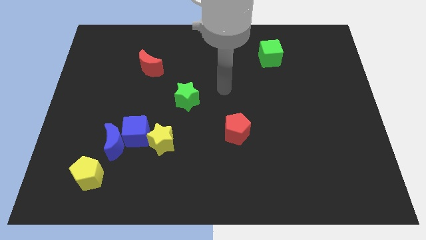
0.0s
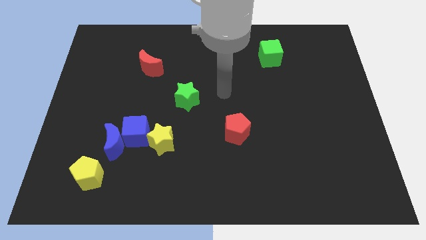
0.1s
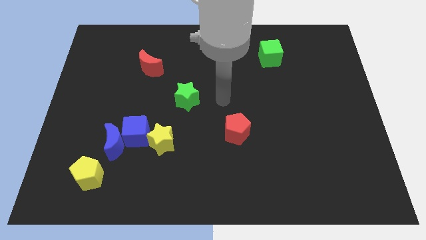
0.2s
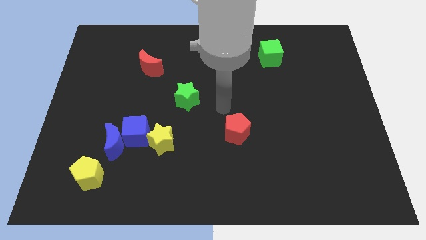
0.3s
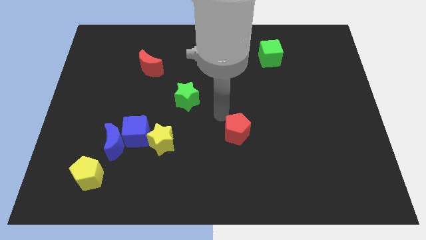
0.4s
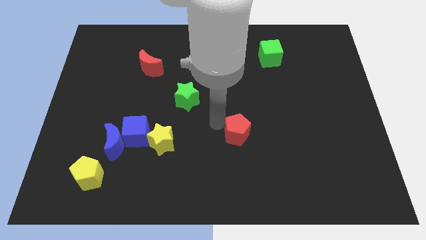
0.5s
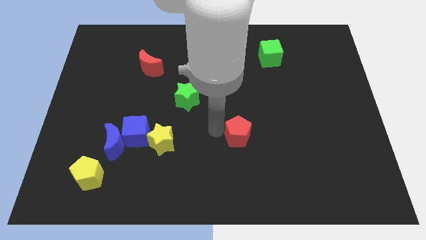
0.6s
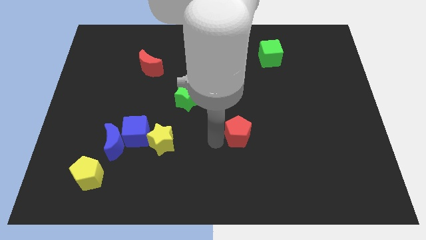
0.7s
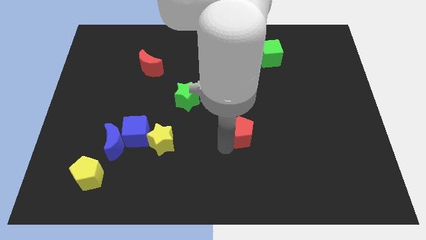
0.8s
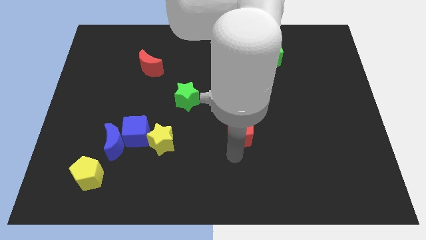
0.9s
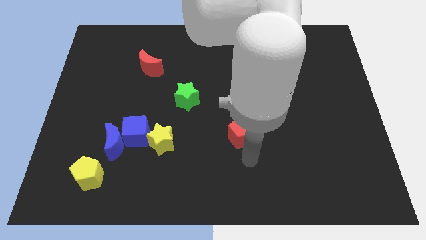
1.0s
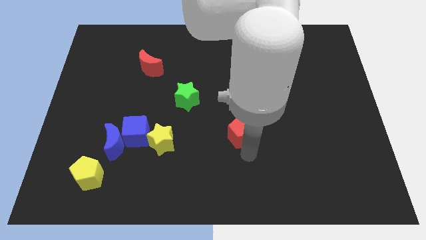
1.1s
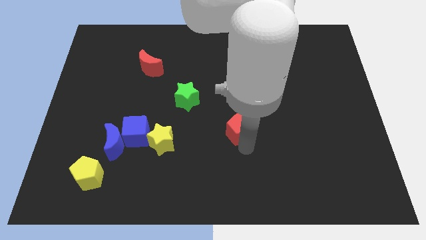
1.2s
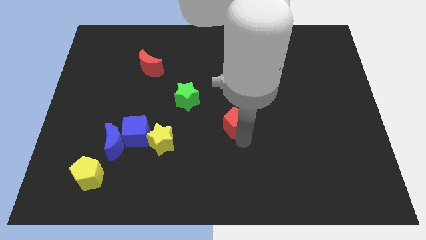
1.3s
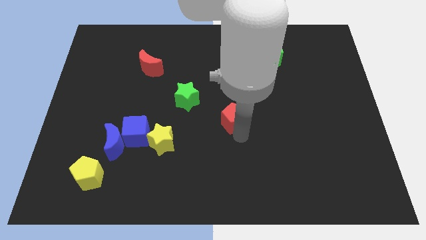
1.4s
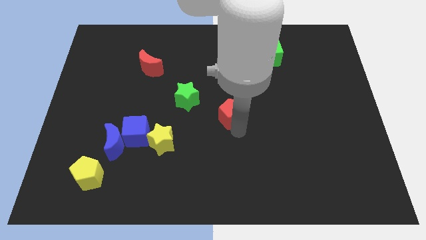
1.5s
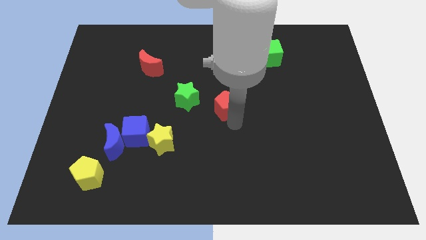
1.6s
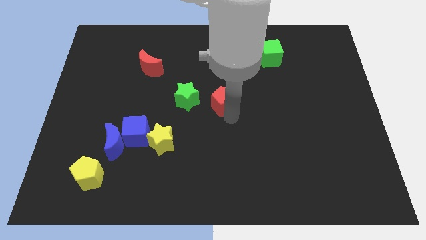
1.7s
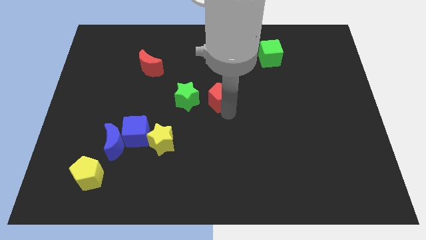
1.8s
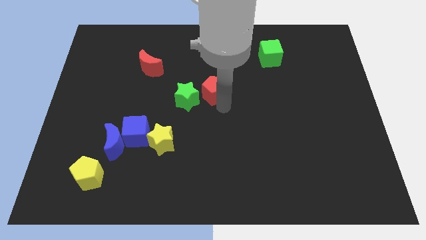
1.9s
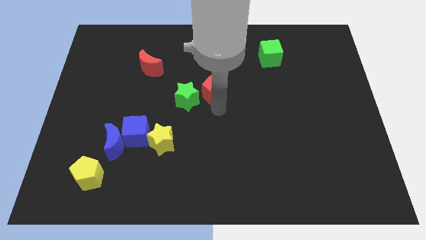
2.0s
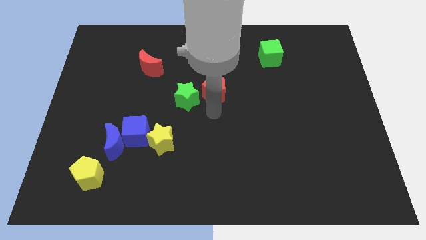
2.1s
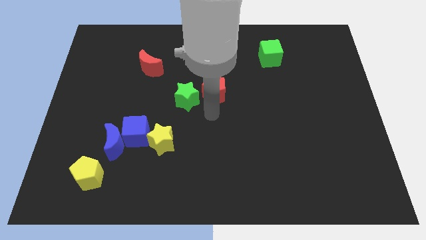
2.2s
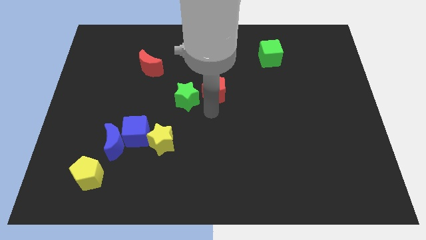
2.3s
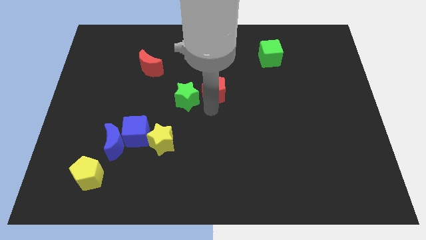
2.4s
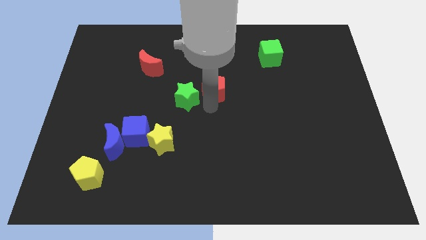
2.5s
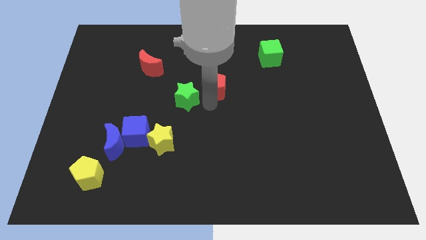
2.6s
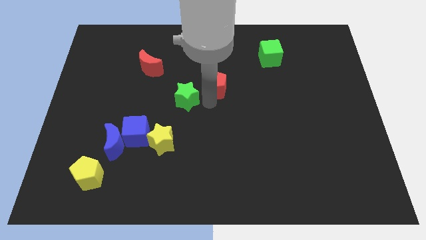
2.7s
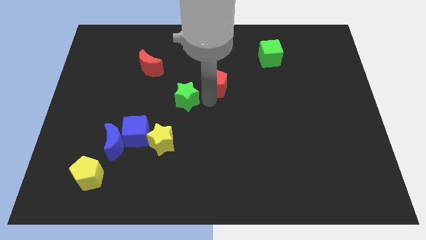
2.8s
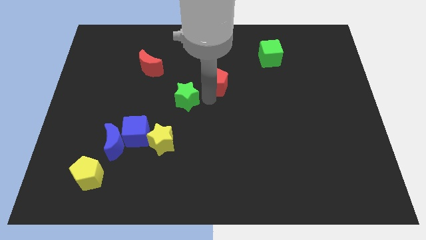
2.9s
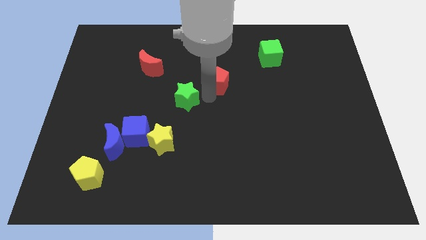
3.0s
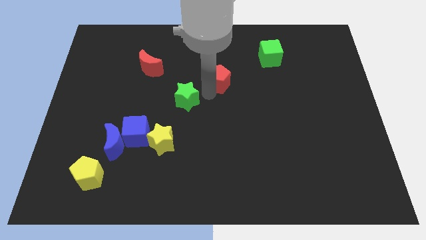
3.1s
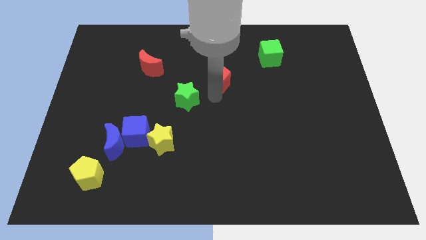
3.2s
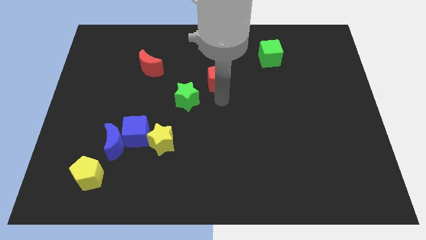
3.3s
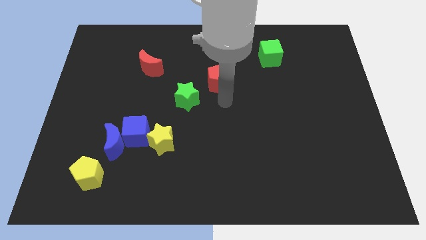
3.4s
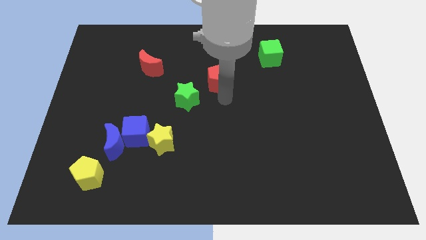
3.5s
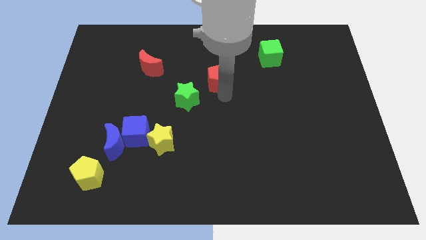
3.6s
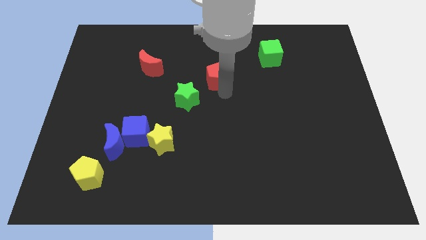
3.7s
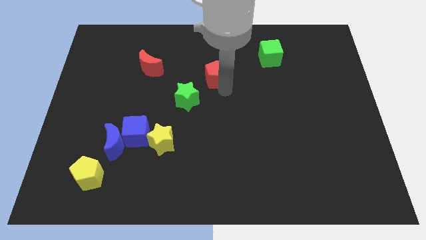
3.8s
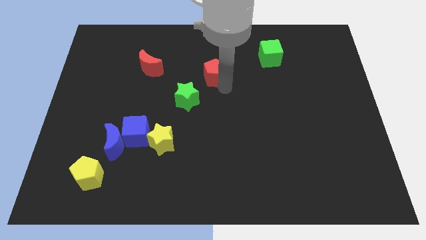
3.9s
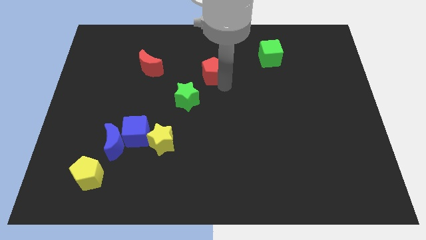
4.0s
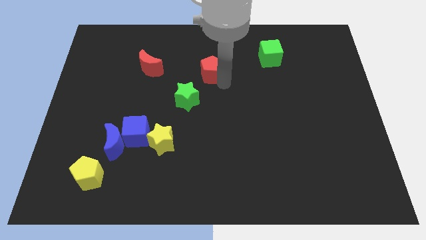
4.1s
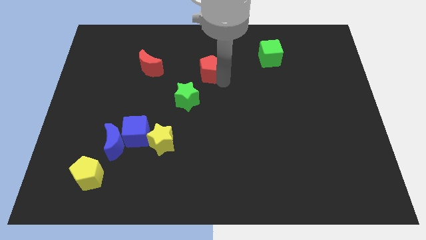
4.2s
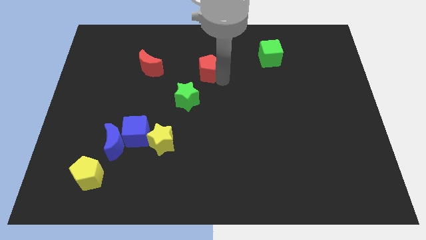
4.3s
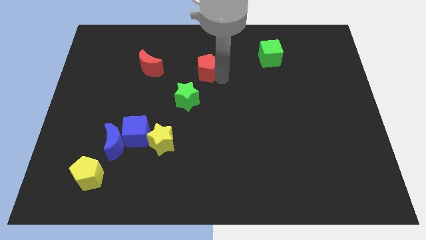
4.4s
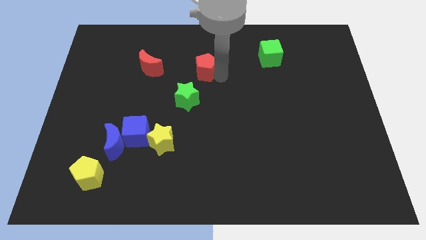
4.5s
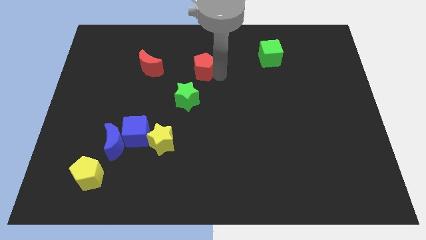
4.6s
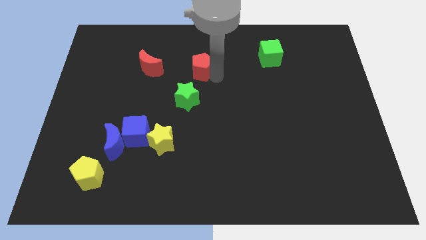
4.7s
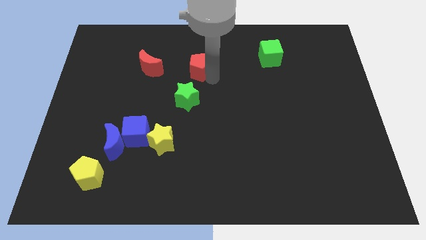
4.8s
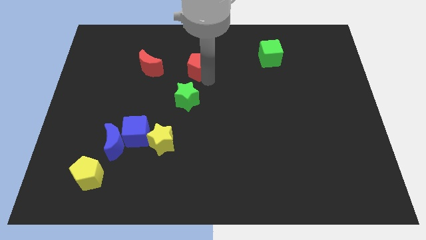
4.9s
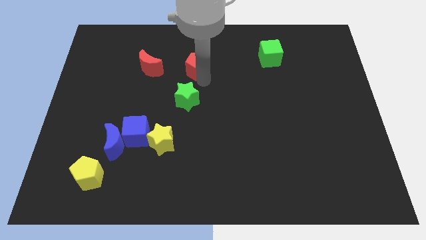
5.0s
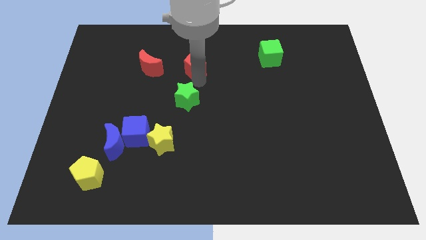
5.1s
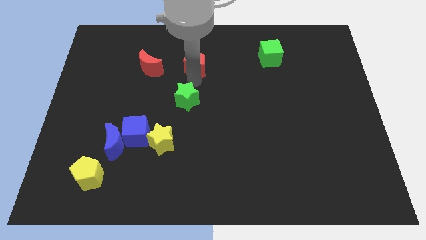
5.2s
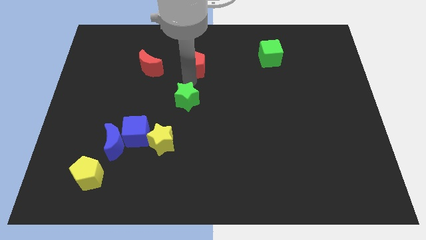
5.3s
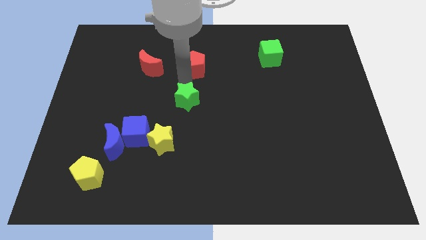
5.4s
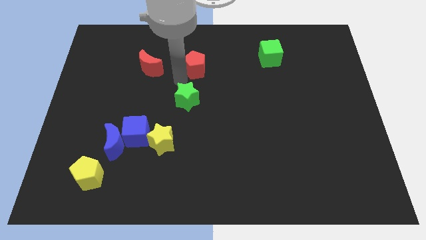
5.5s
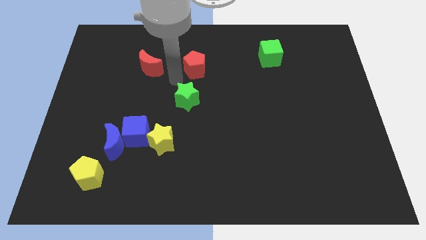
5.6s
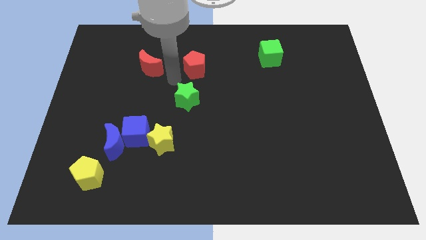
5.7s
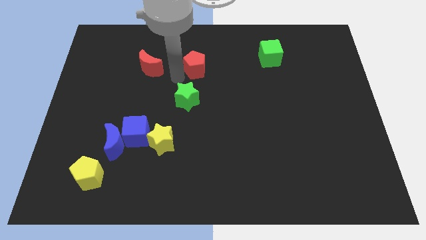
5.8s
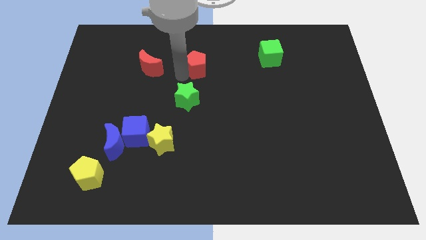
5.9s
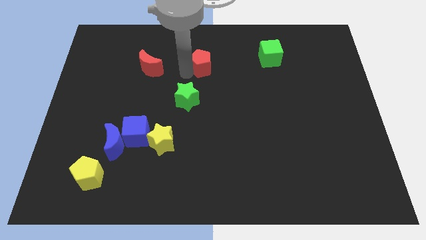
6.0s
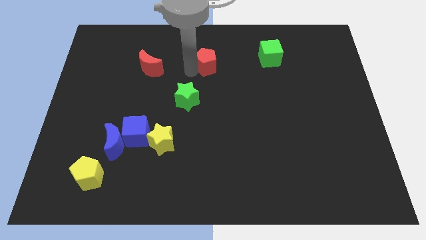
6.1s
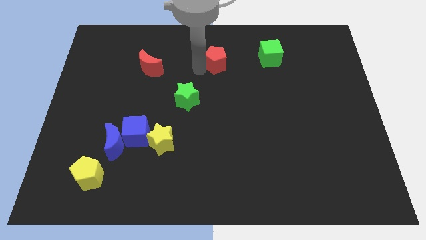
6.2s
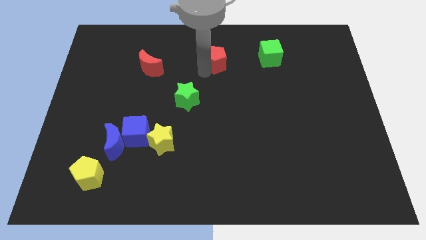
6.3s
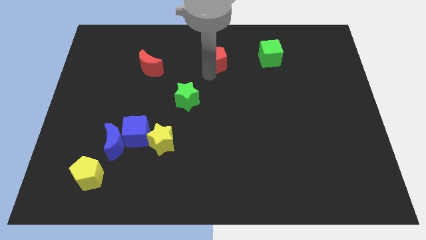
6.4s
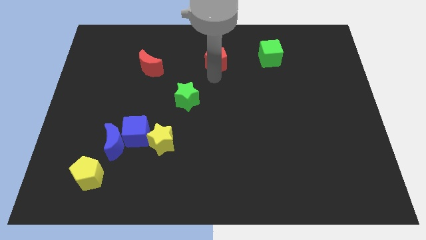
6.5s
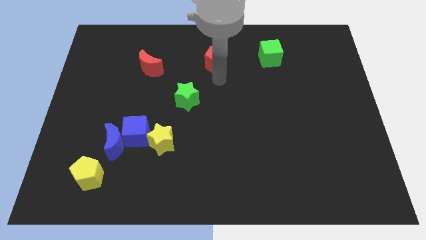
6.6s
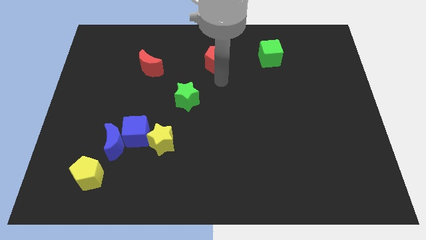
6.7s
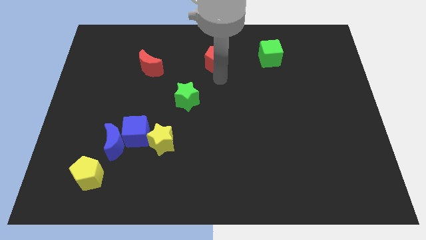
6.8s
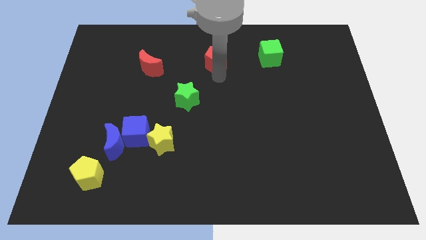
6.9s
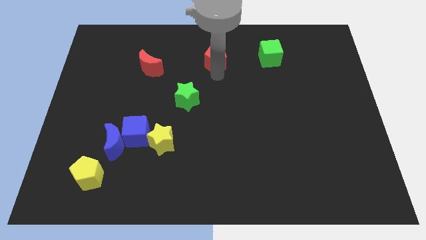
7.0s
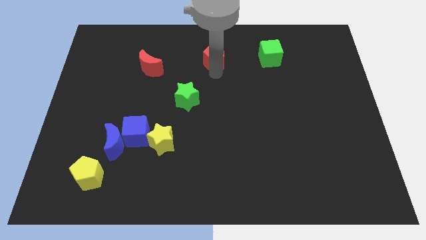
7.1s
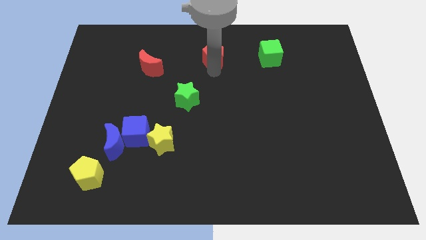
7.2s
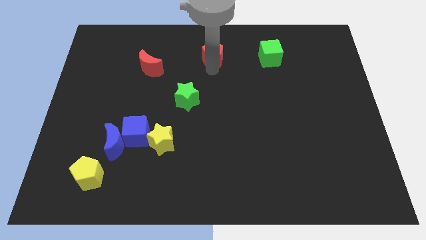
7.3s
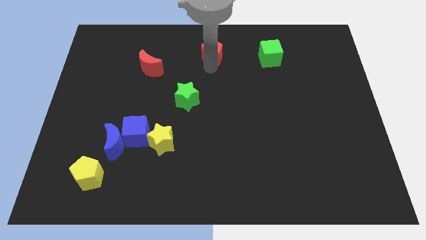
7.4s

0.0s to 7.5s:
push the red pentagon to the top

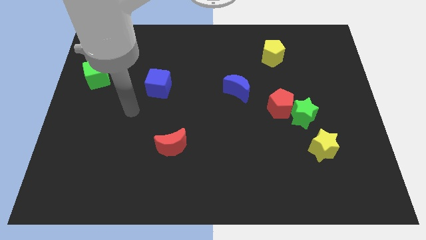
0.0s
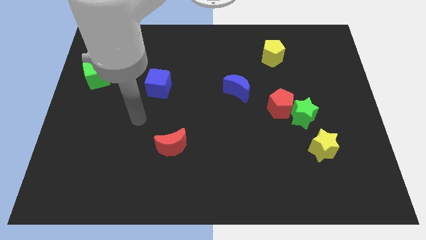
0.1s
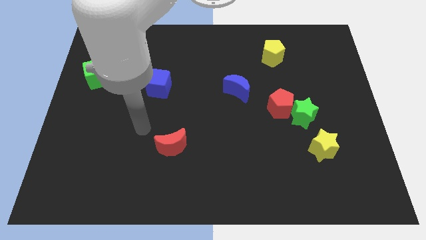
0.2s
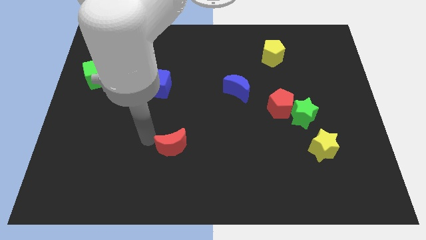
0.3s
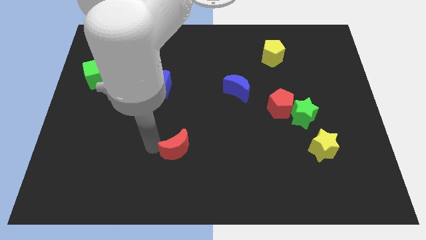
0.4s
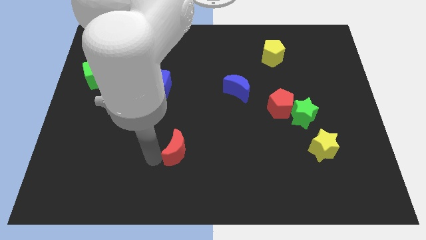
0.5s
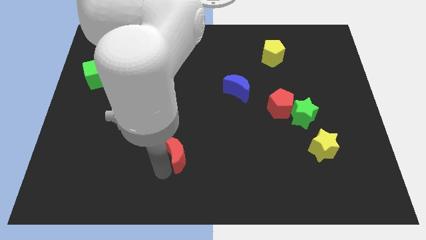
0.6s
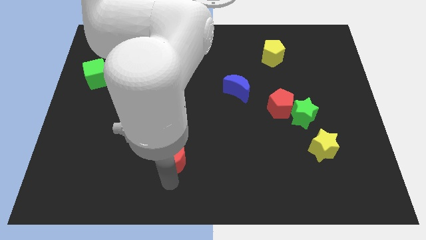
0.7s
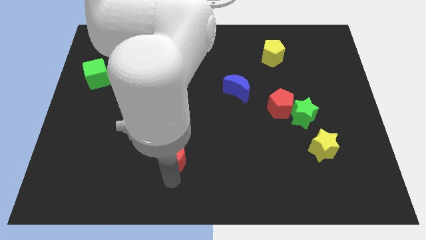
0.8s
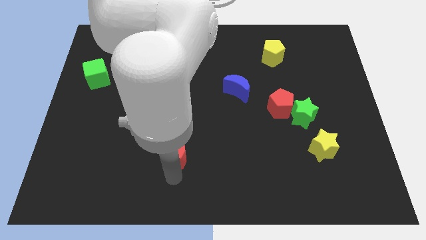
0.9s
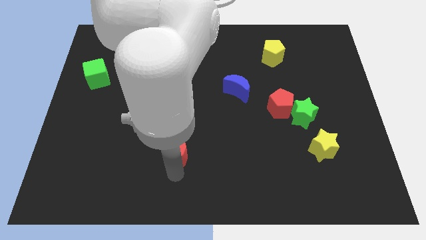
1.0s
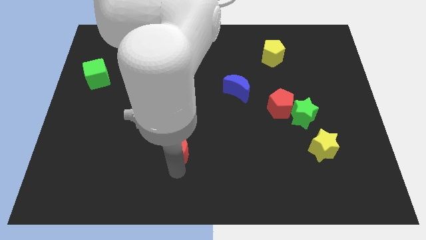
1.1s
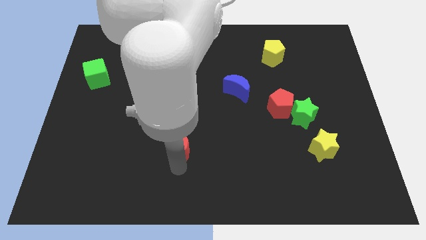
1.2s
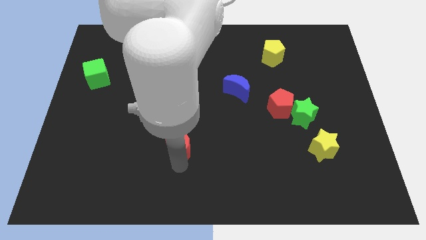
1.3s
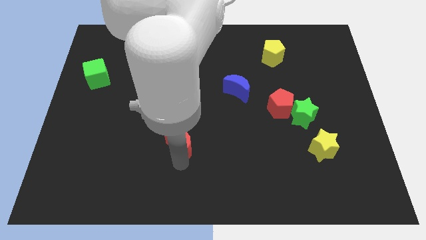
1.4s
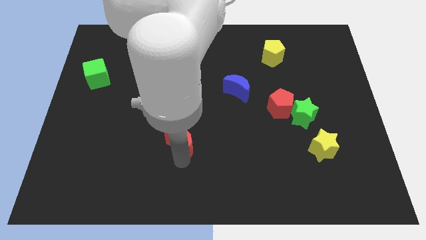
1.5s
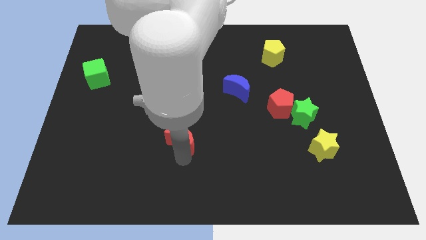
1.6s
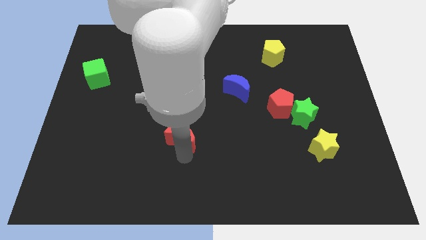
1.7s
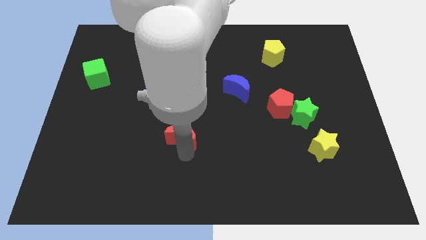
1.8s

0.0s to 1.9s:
put the red moon to the center
